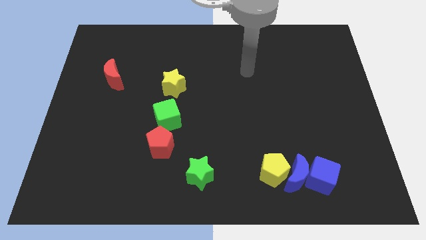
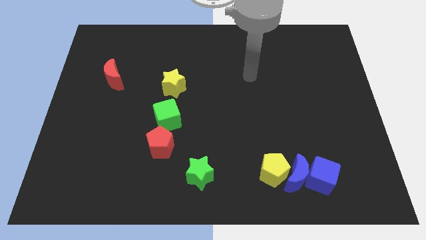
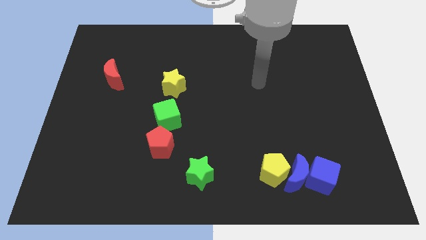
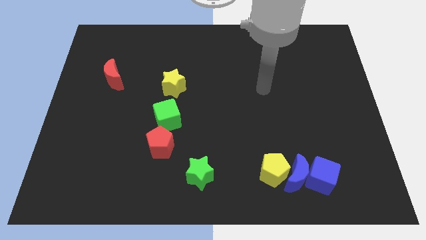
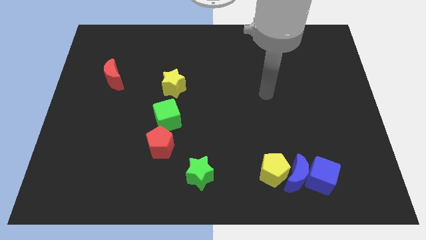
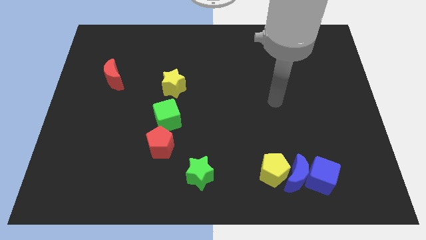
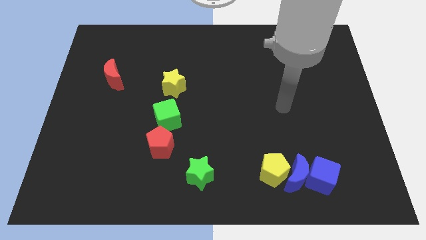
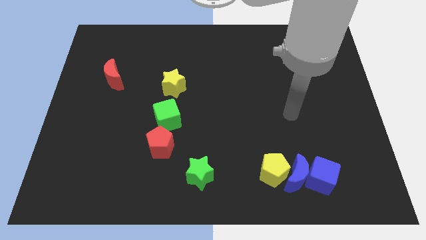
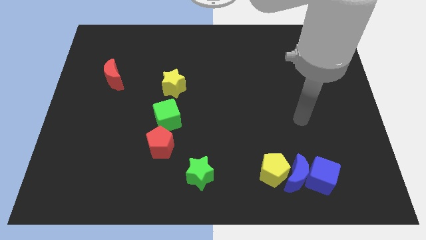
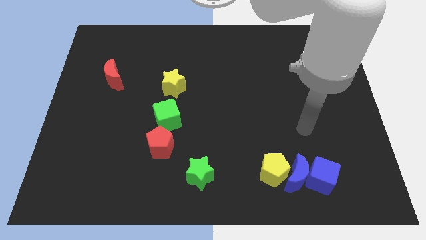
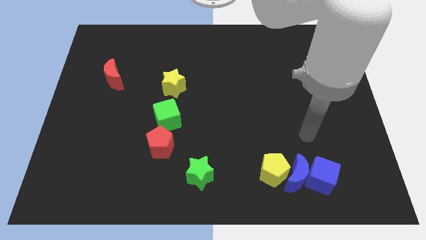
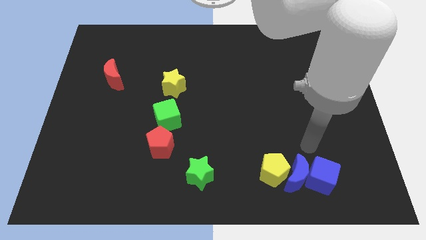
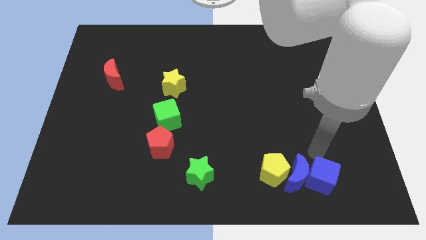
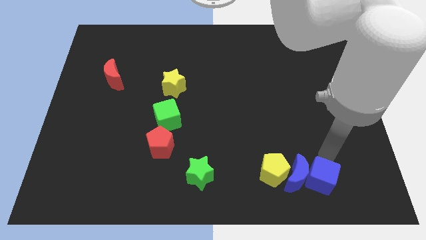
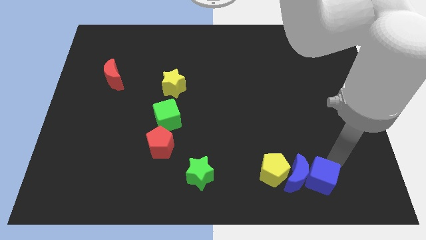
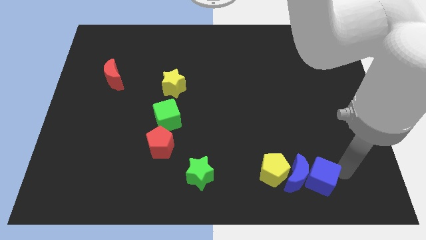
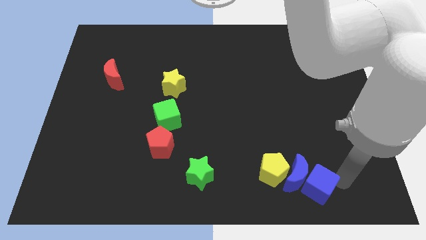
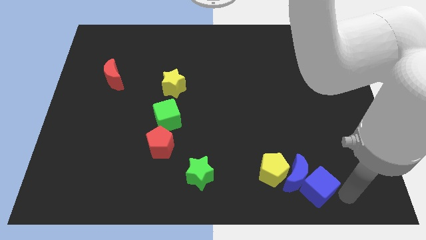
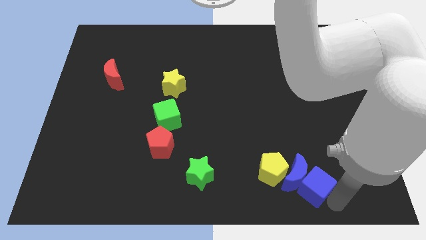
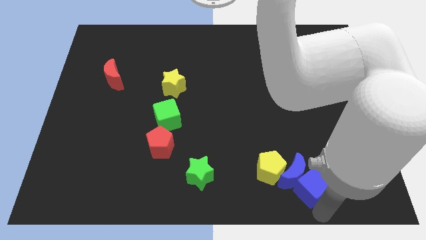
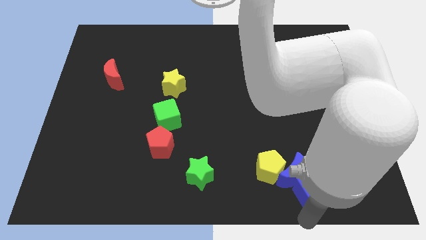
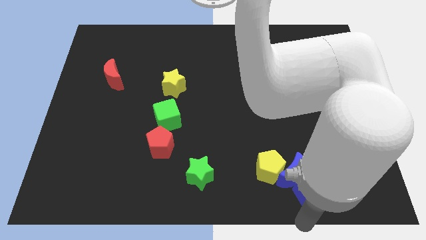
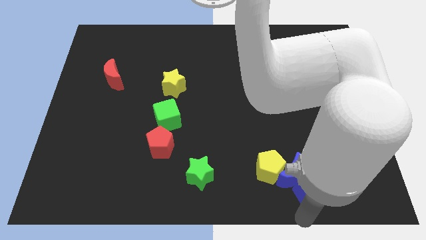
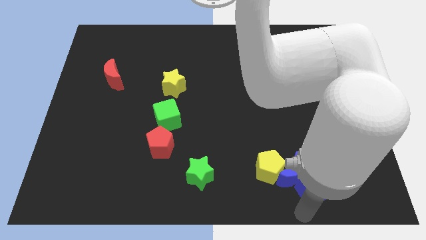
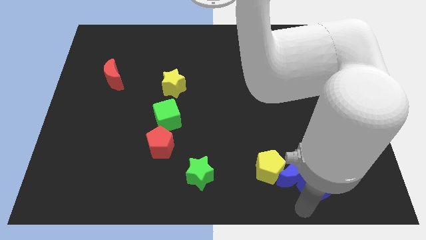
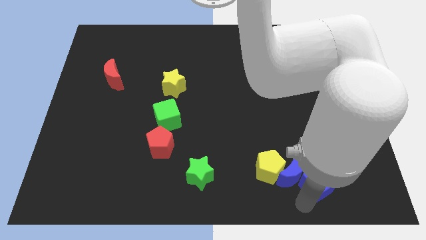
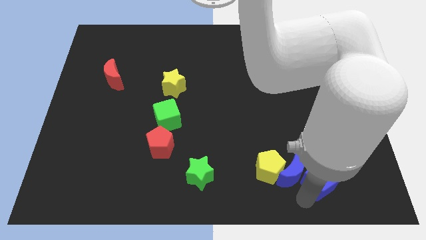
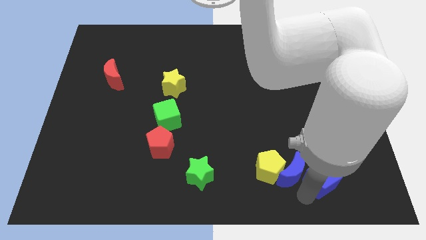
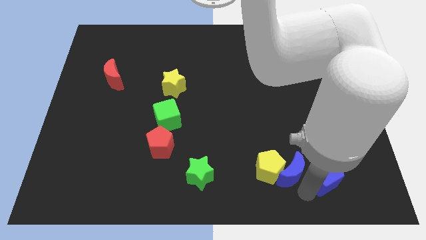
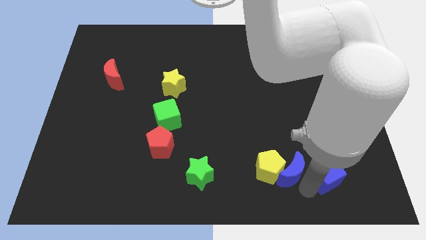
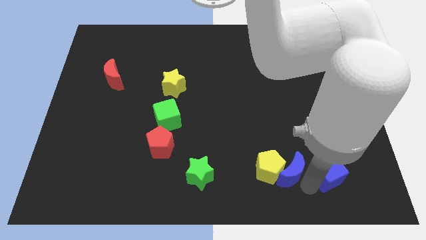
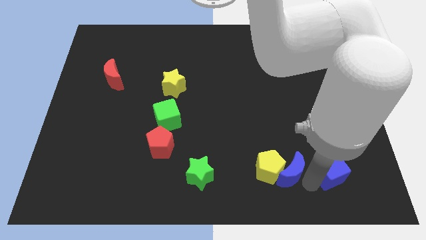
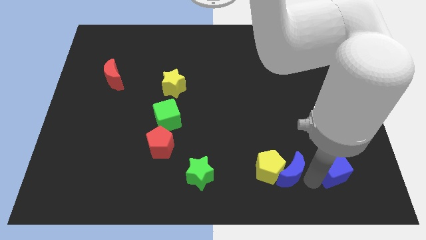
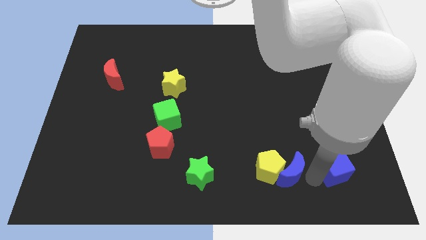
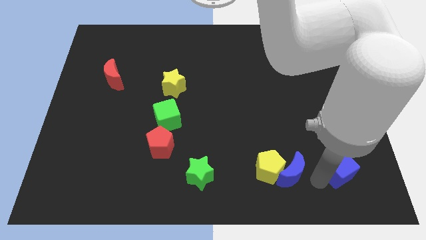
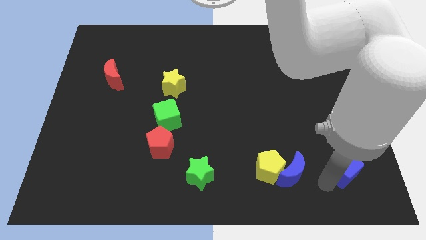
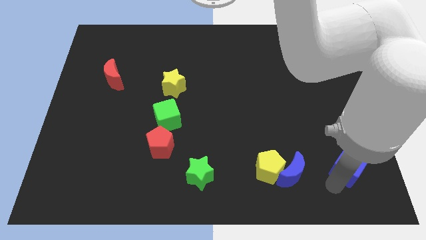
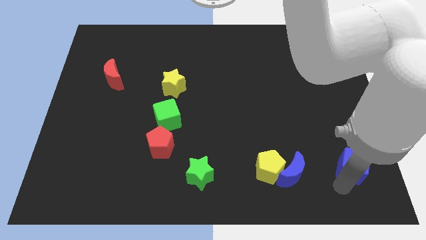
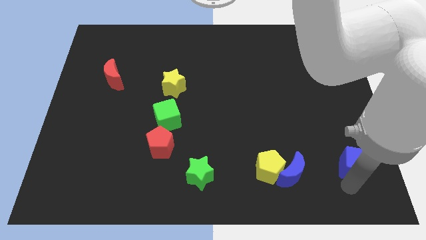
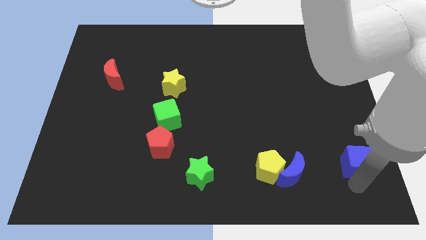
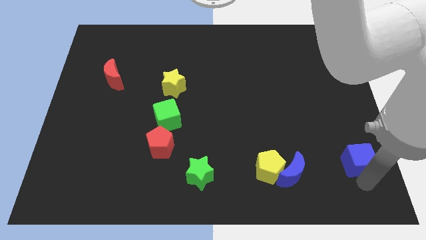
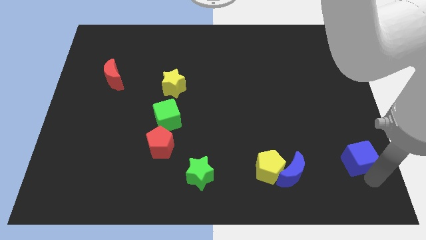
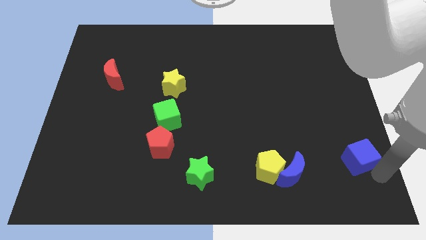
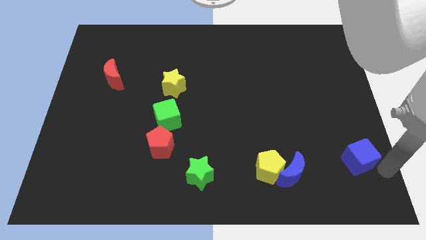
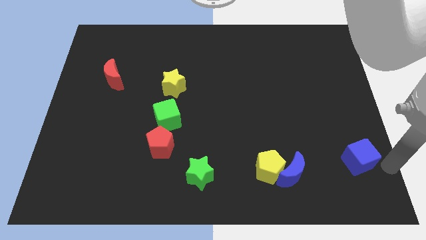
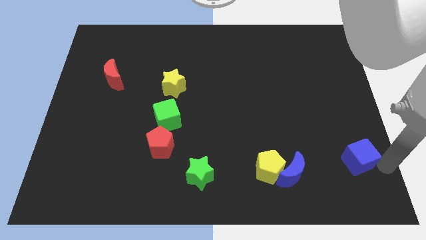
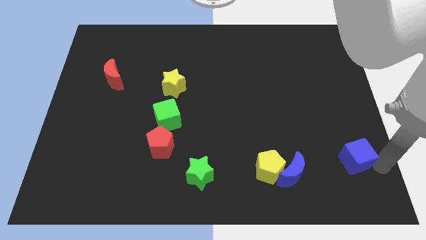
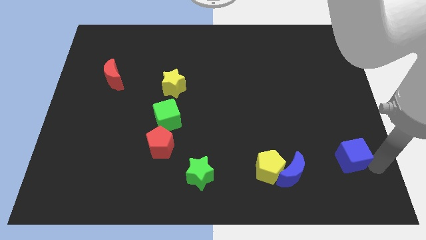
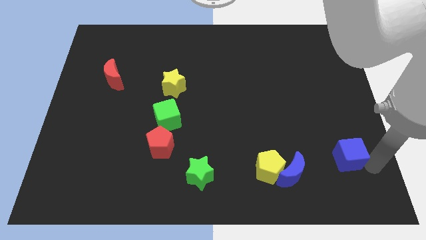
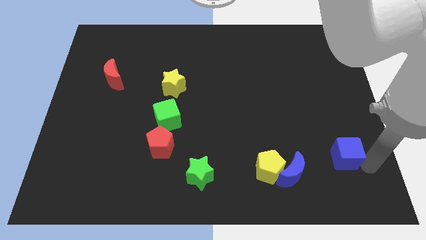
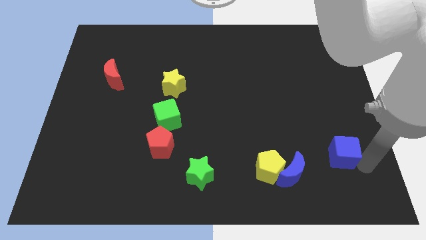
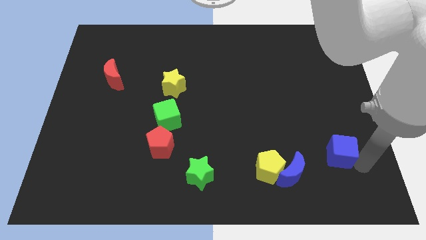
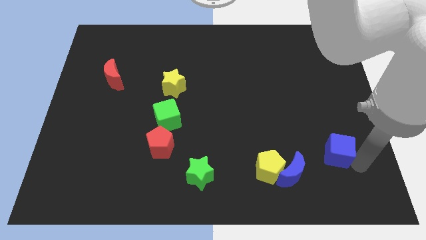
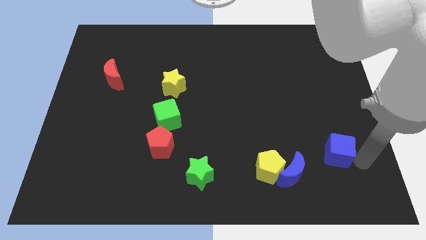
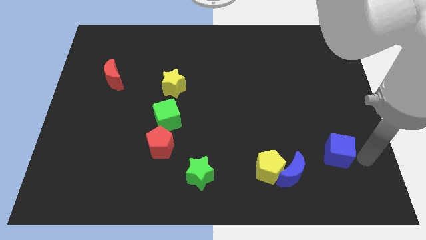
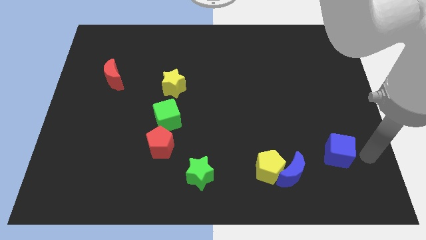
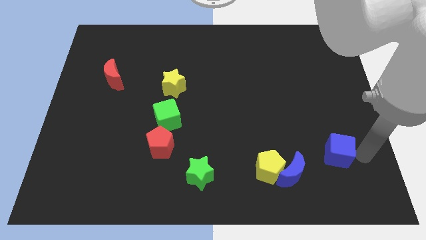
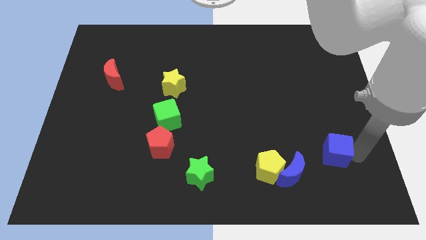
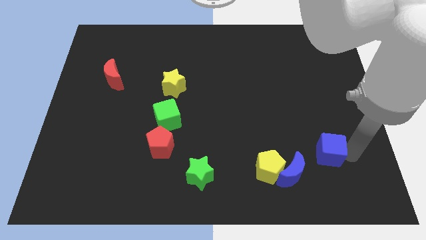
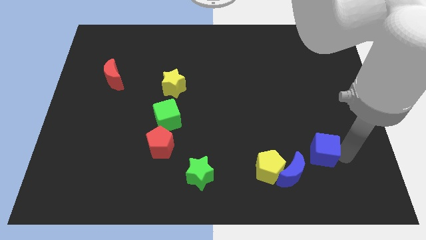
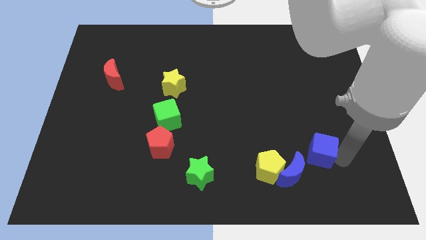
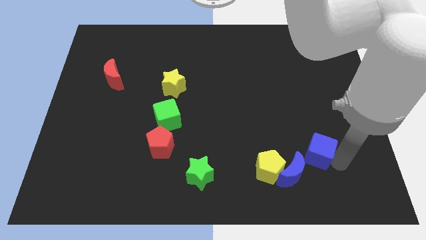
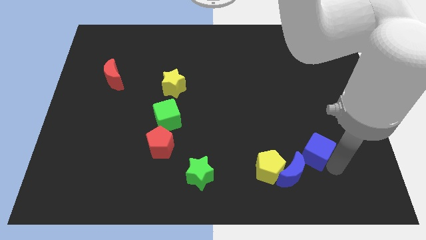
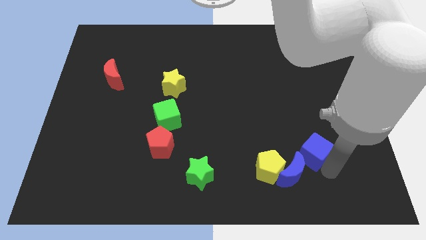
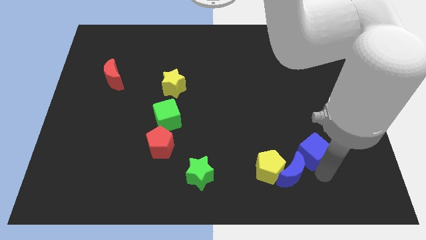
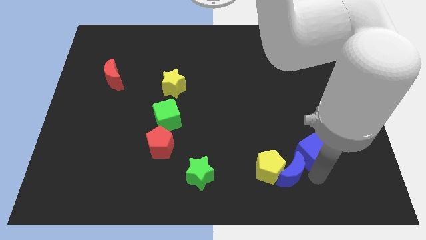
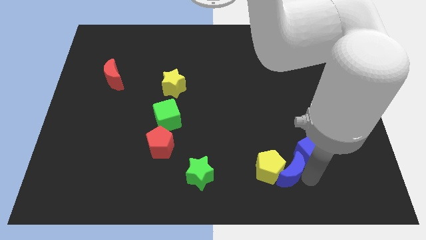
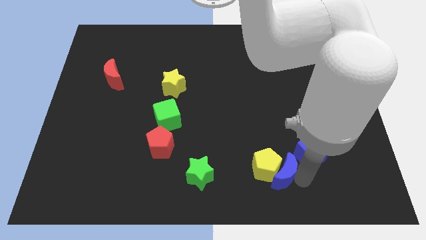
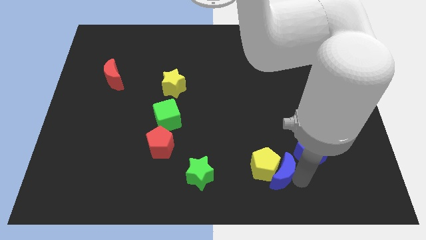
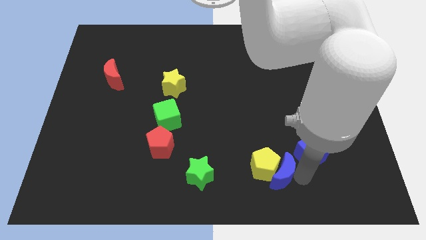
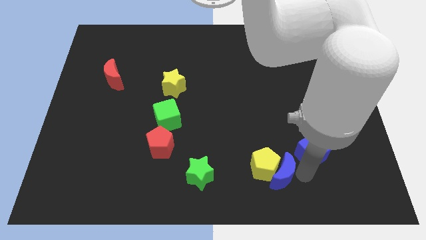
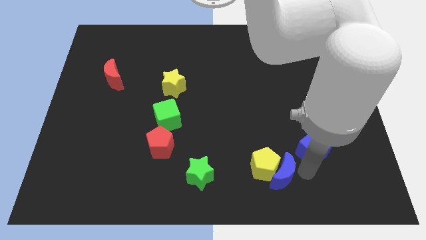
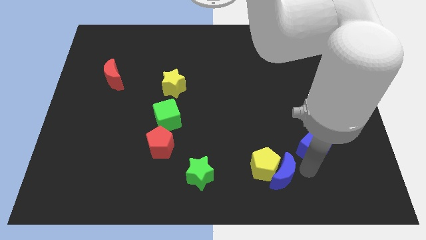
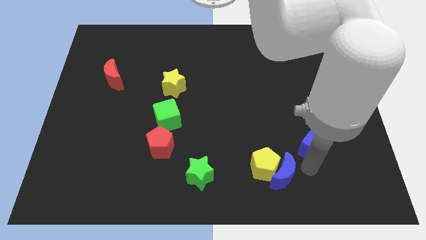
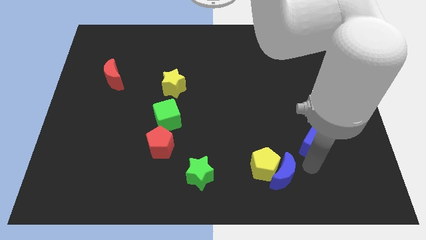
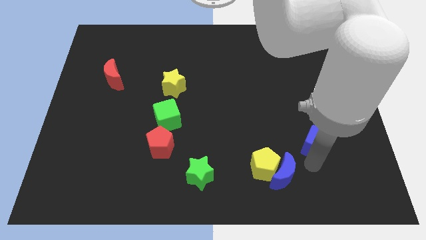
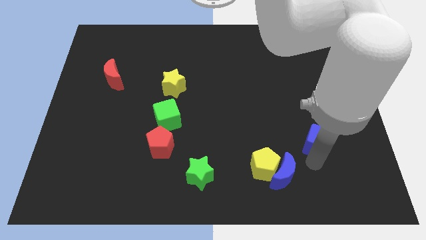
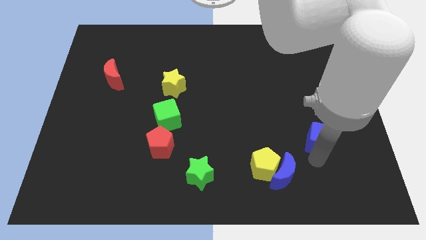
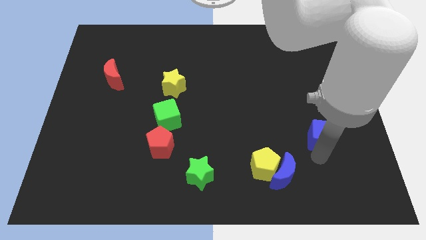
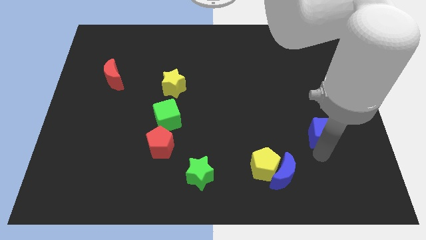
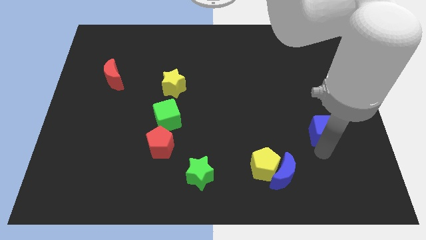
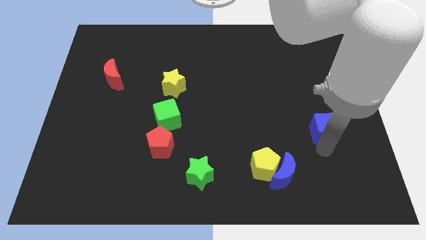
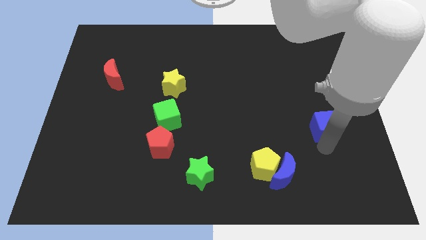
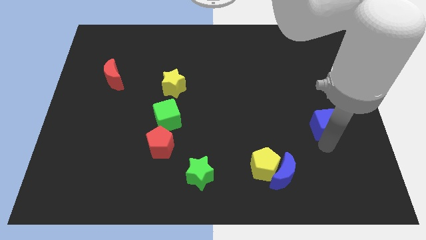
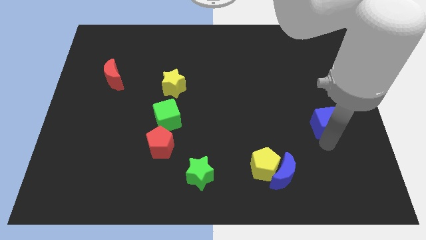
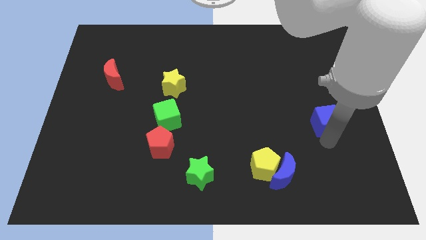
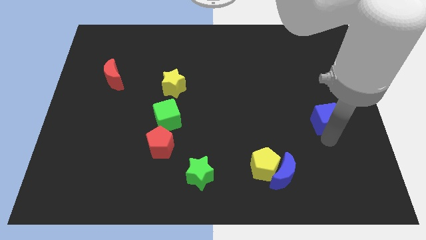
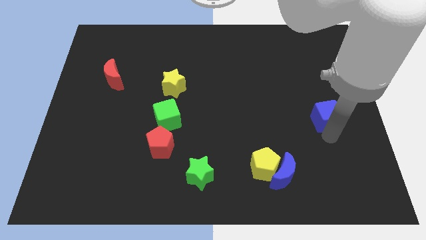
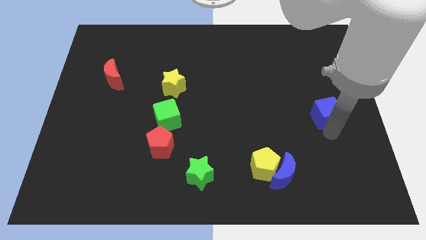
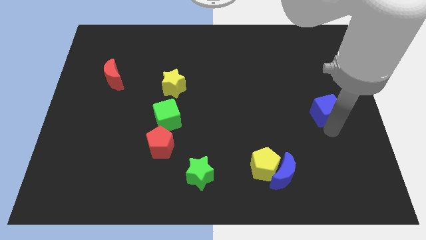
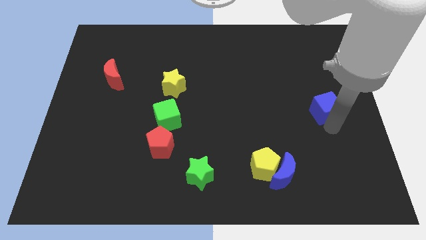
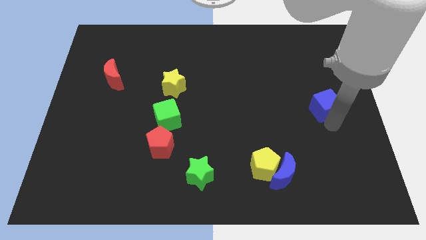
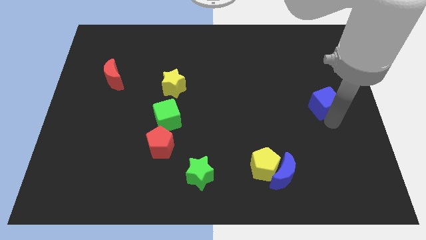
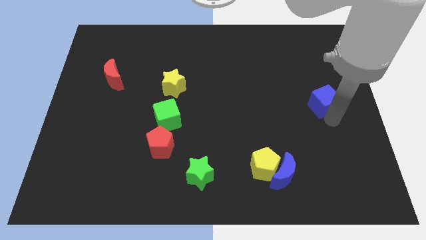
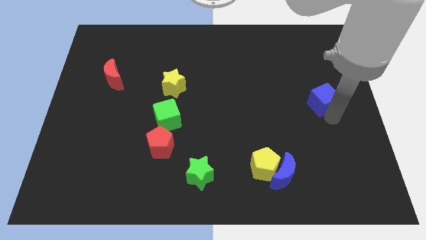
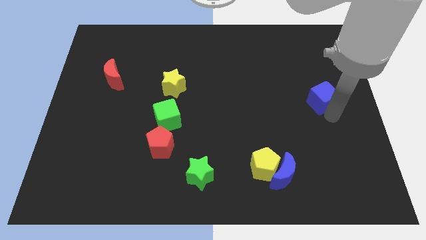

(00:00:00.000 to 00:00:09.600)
move the blue cube upwards
